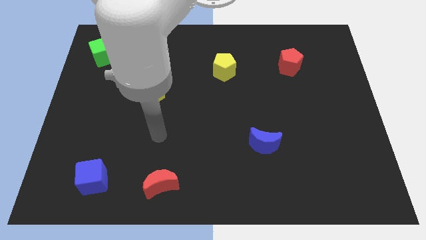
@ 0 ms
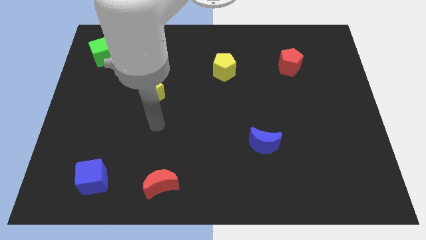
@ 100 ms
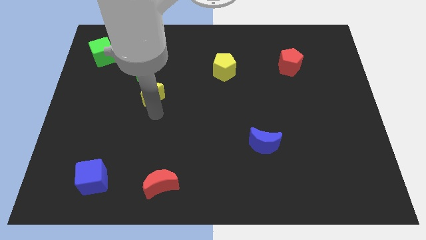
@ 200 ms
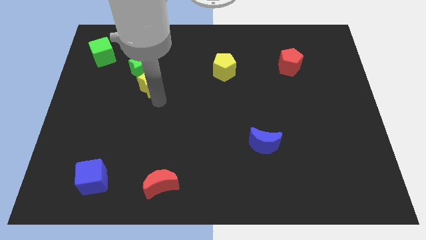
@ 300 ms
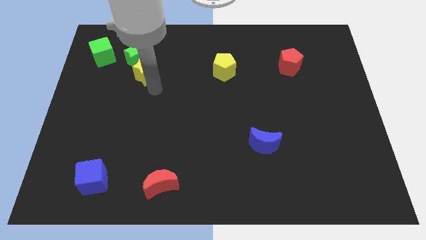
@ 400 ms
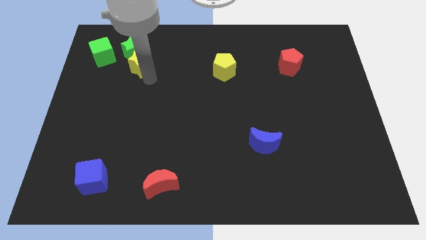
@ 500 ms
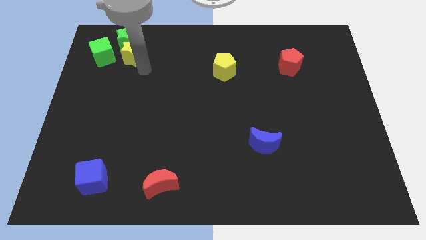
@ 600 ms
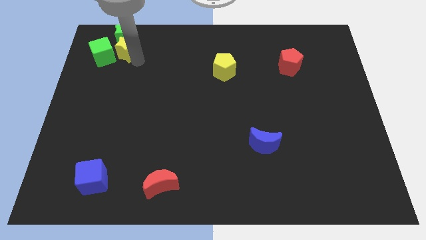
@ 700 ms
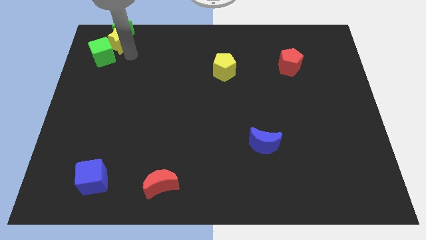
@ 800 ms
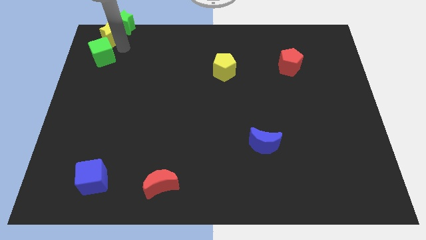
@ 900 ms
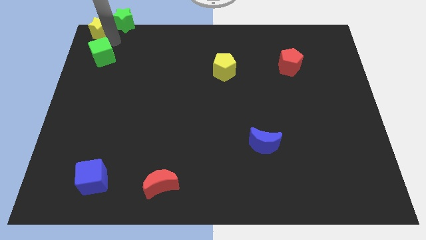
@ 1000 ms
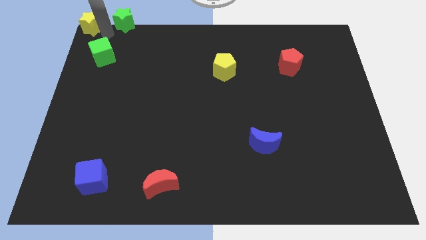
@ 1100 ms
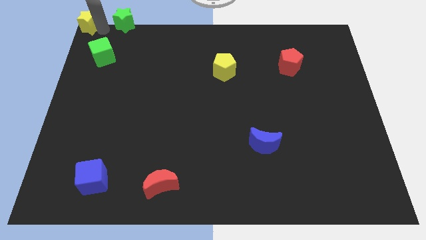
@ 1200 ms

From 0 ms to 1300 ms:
pull the green star apart from the yellow star

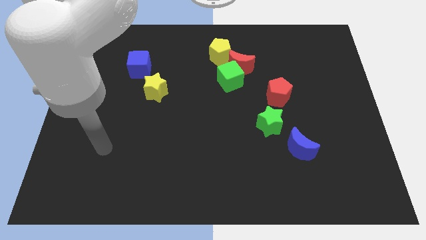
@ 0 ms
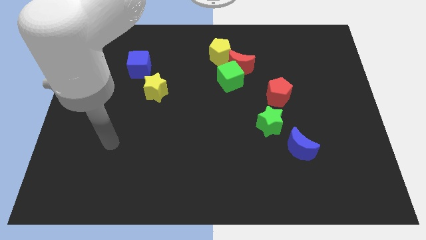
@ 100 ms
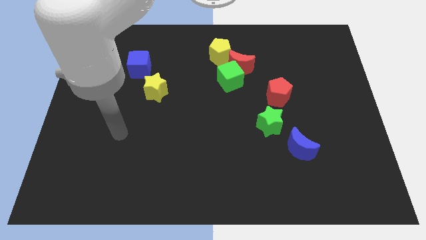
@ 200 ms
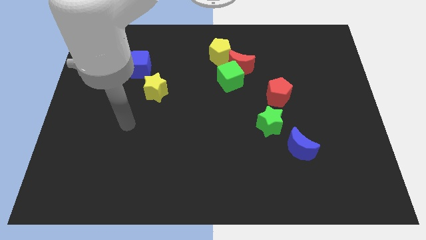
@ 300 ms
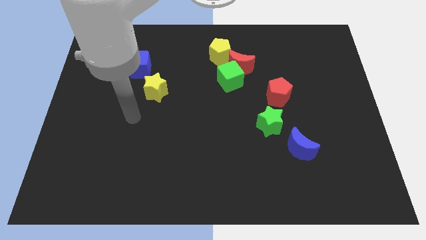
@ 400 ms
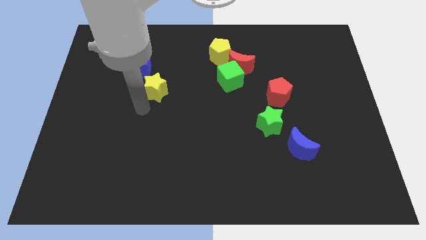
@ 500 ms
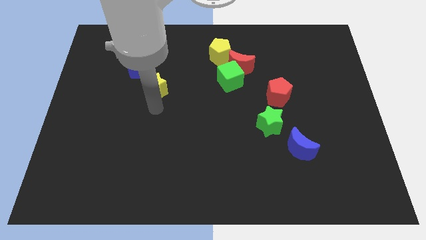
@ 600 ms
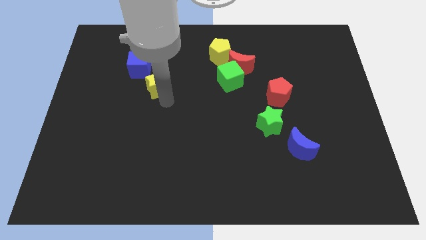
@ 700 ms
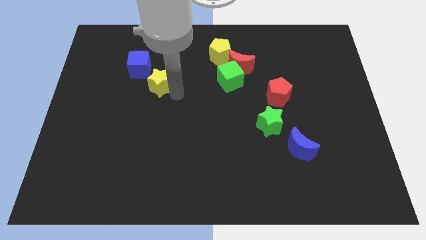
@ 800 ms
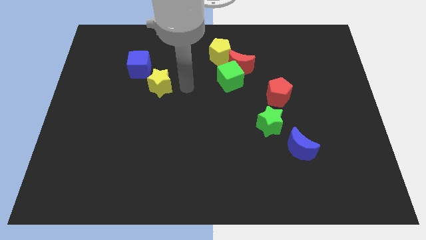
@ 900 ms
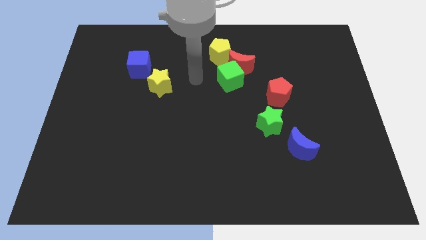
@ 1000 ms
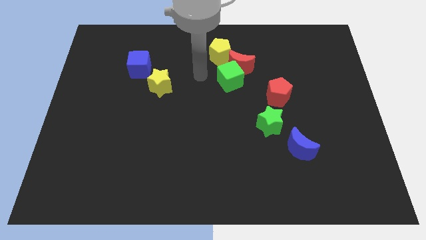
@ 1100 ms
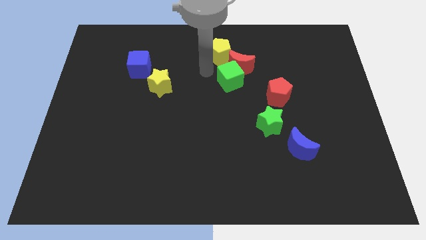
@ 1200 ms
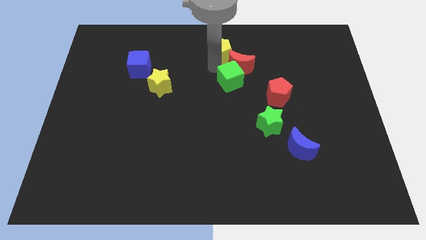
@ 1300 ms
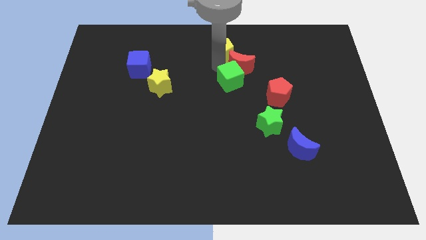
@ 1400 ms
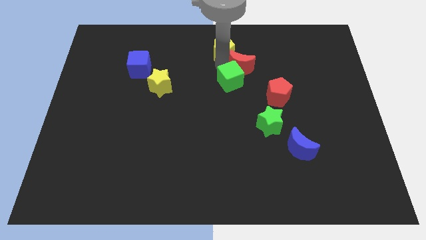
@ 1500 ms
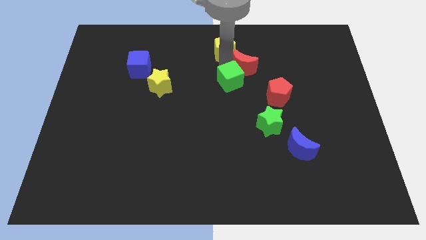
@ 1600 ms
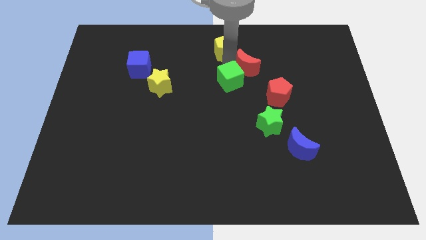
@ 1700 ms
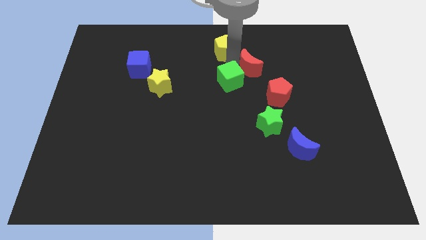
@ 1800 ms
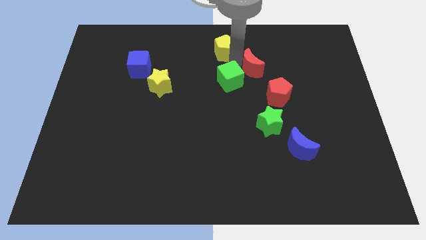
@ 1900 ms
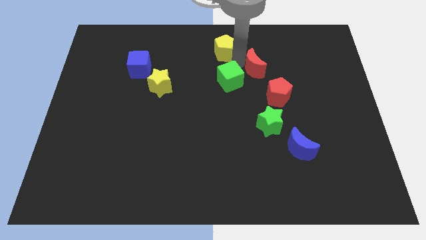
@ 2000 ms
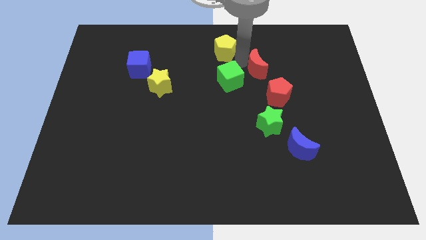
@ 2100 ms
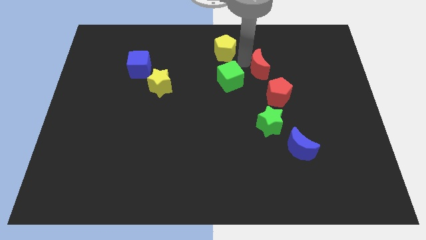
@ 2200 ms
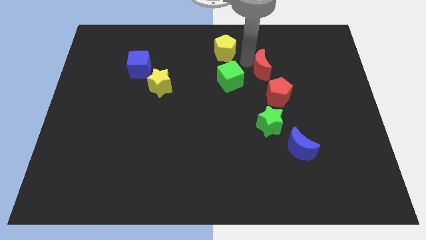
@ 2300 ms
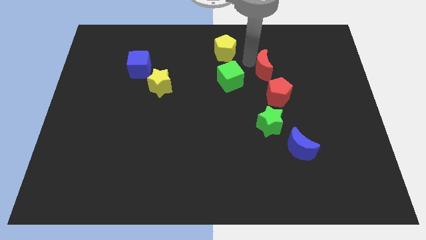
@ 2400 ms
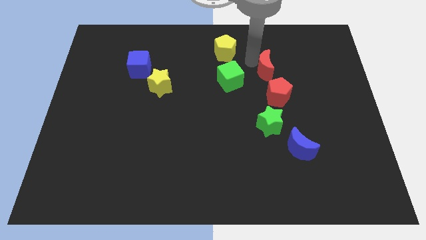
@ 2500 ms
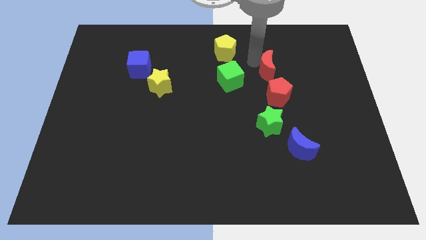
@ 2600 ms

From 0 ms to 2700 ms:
pull the red moon apart from the green cube and yellow pentagon

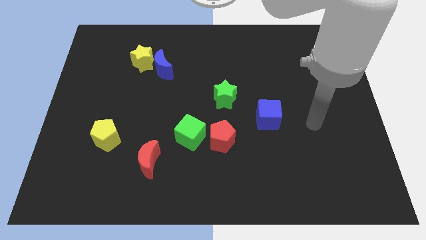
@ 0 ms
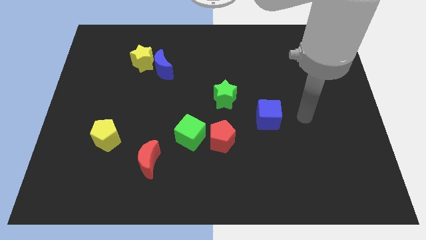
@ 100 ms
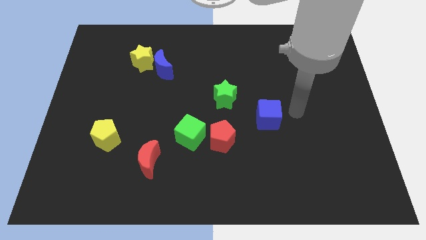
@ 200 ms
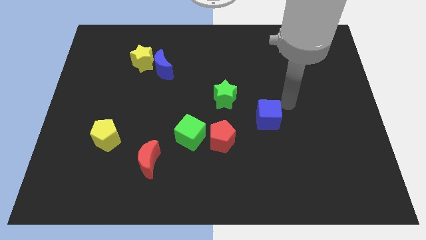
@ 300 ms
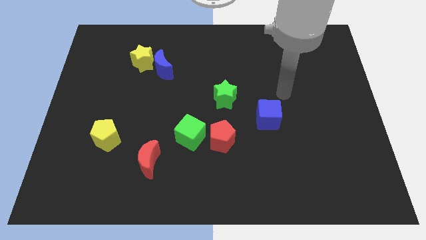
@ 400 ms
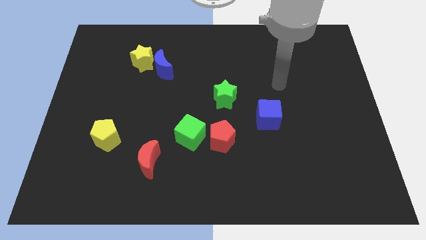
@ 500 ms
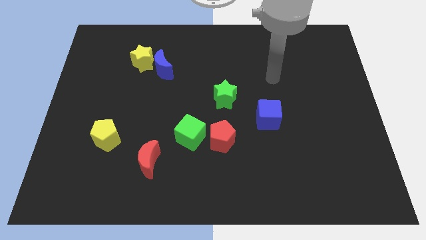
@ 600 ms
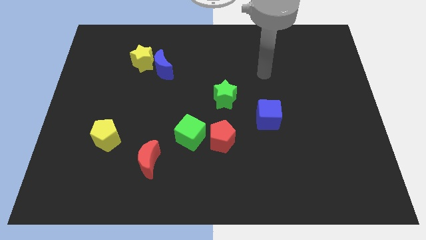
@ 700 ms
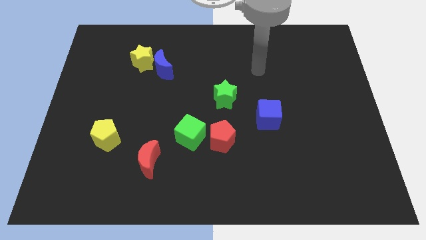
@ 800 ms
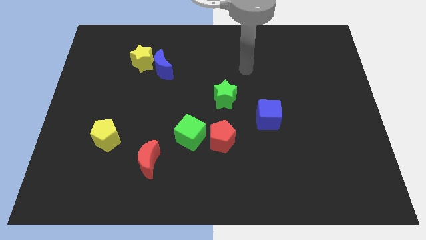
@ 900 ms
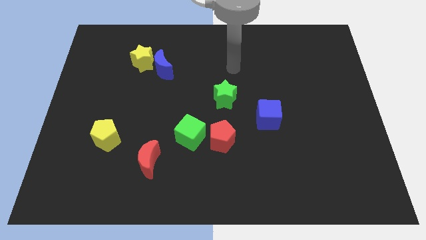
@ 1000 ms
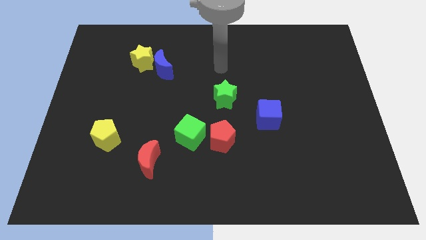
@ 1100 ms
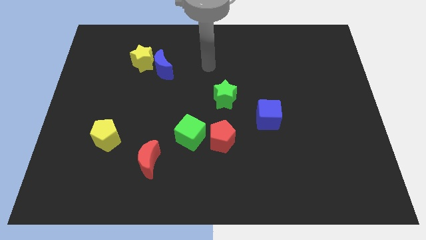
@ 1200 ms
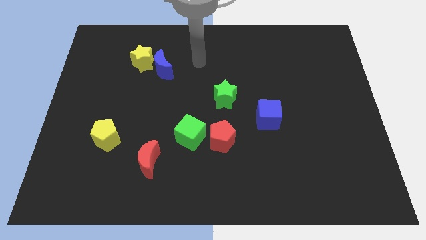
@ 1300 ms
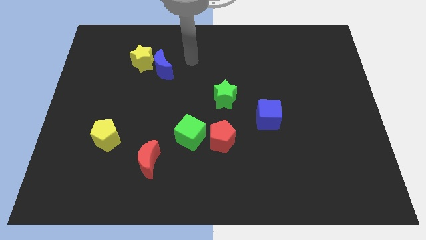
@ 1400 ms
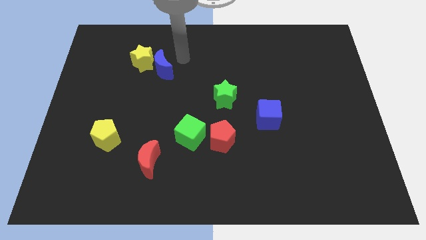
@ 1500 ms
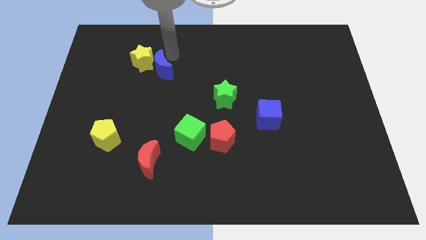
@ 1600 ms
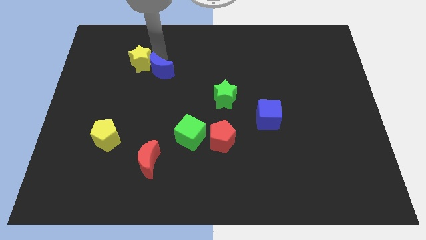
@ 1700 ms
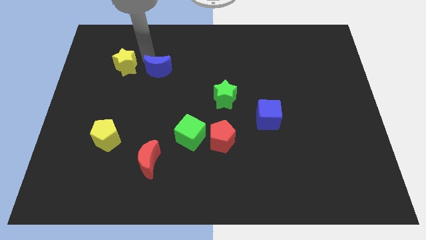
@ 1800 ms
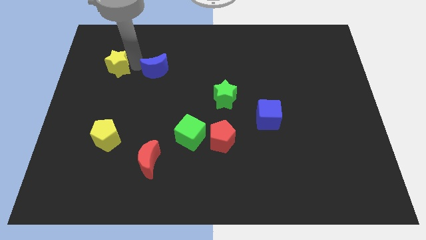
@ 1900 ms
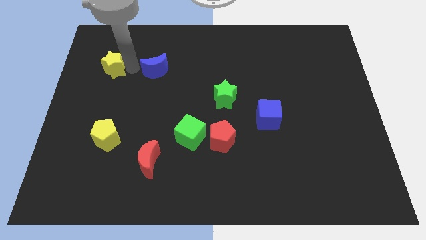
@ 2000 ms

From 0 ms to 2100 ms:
pull the blue moon apart from the yellow star

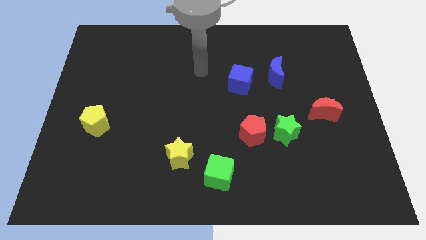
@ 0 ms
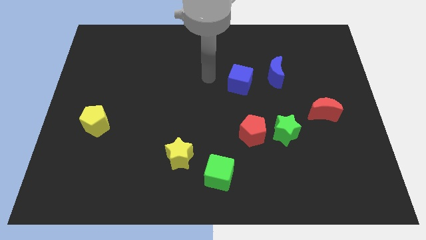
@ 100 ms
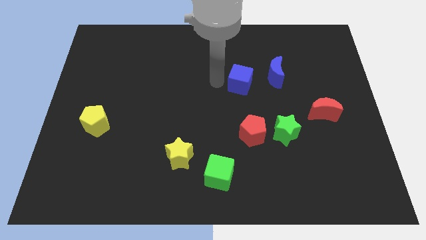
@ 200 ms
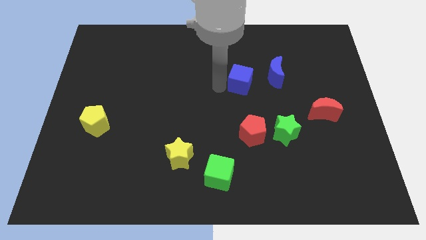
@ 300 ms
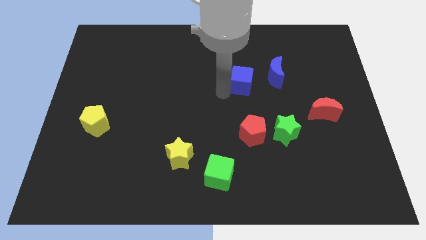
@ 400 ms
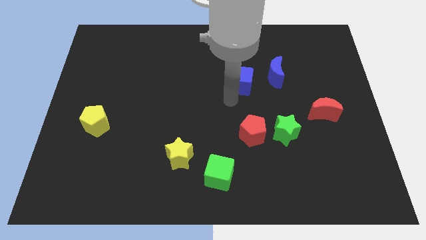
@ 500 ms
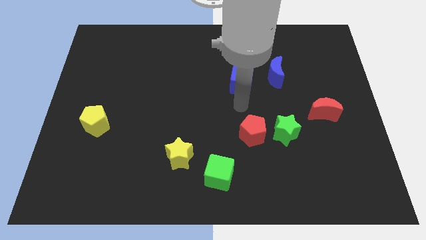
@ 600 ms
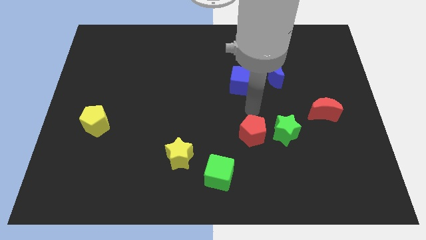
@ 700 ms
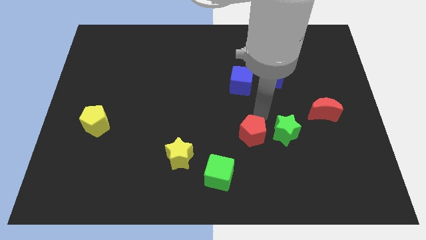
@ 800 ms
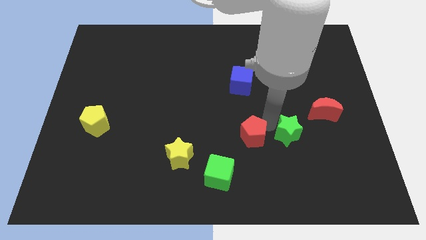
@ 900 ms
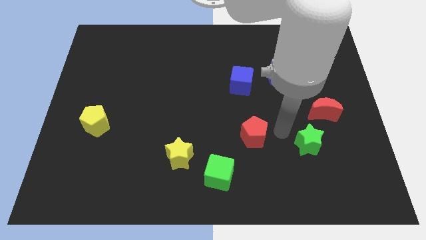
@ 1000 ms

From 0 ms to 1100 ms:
pull the red pentagon apart from the green star

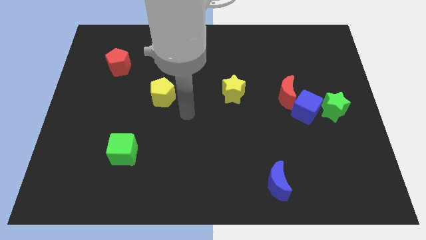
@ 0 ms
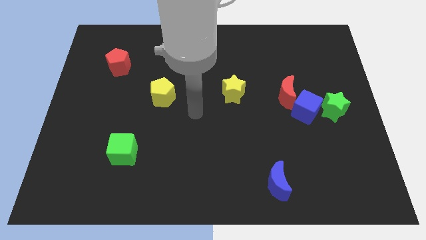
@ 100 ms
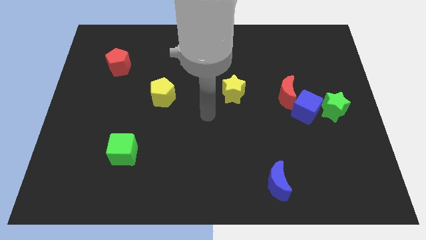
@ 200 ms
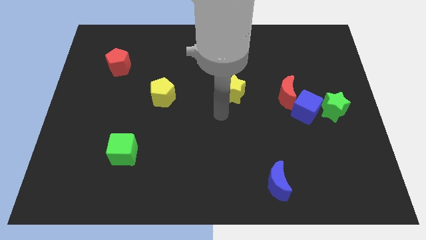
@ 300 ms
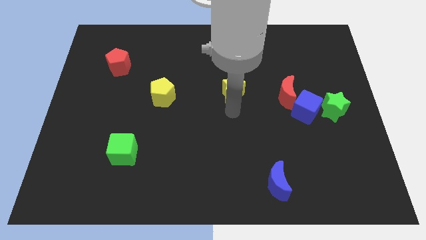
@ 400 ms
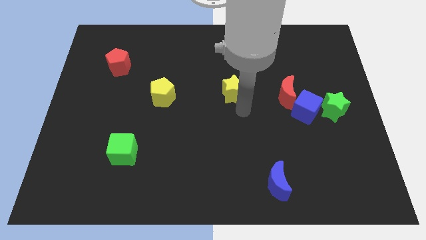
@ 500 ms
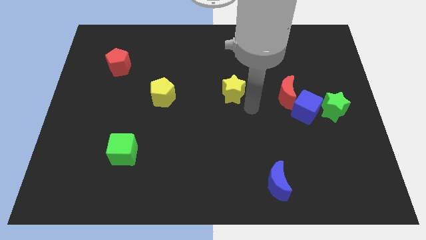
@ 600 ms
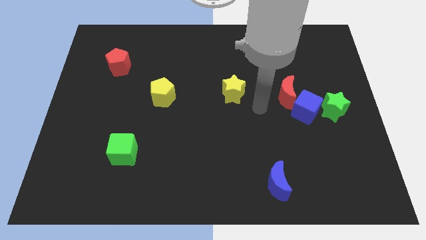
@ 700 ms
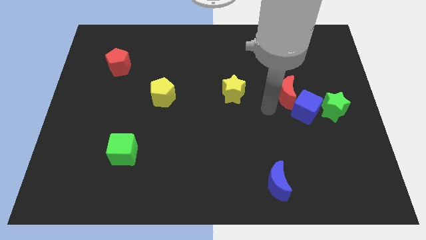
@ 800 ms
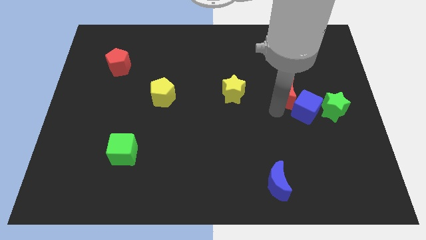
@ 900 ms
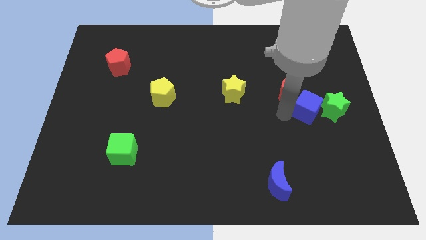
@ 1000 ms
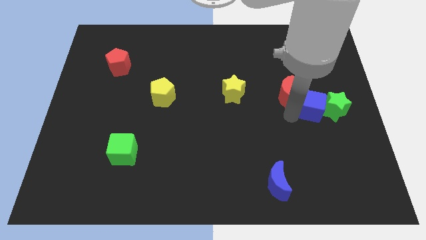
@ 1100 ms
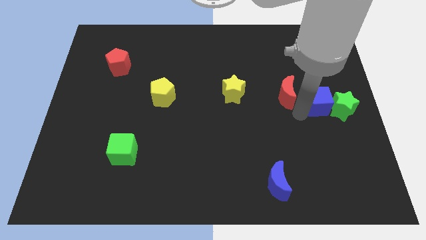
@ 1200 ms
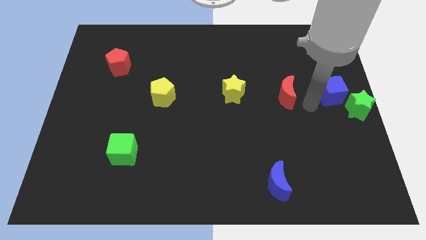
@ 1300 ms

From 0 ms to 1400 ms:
separate the red moon from the blue cube

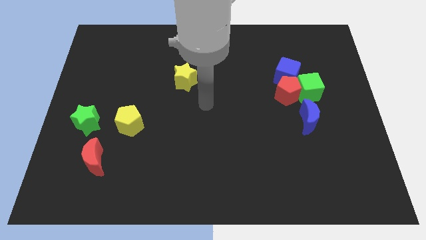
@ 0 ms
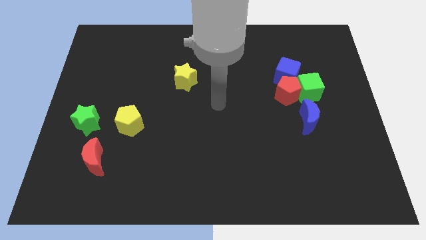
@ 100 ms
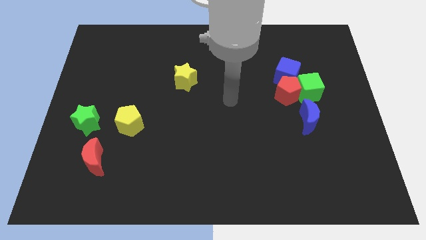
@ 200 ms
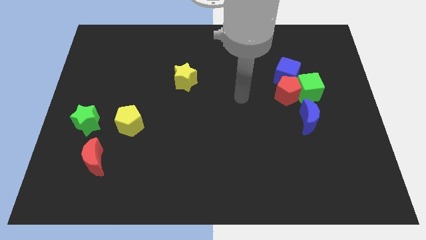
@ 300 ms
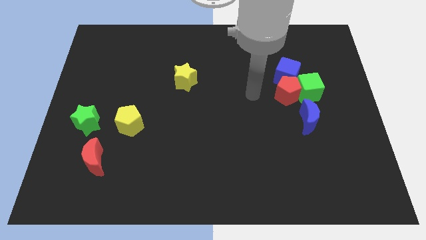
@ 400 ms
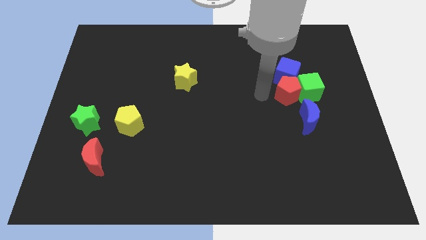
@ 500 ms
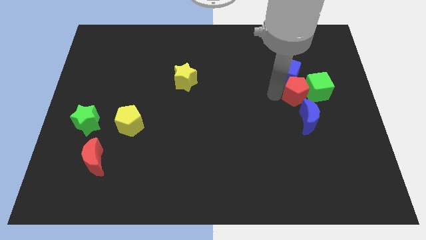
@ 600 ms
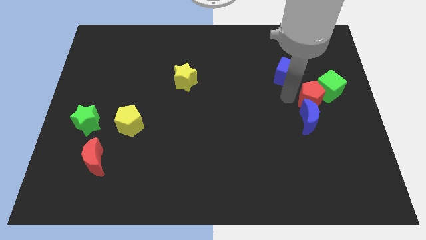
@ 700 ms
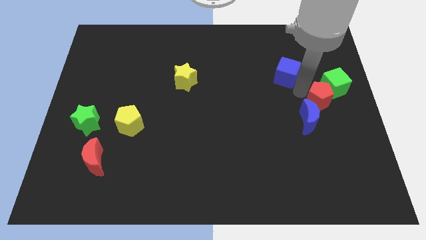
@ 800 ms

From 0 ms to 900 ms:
pull the blue cube apart from the red pentagon and green cube
